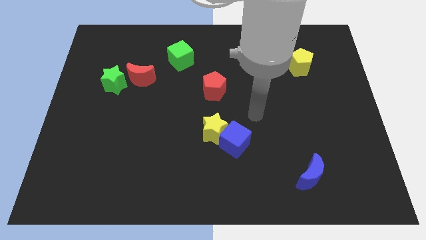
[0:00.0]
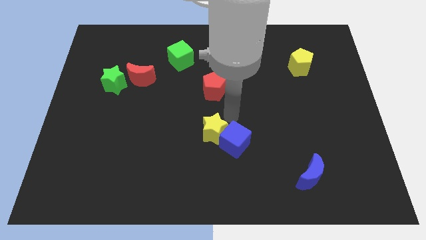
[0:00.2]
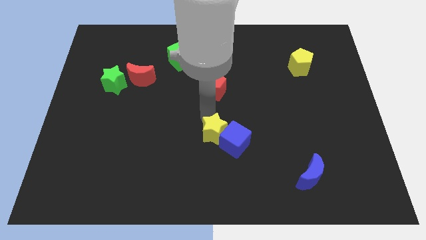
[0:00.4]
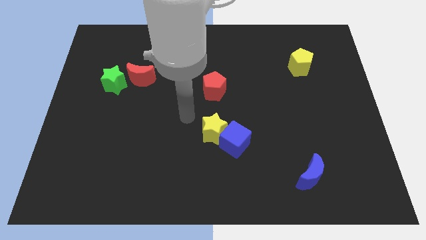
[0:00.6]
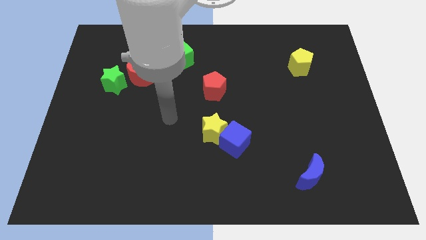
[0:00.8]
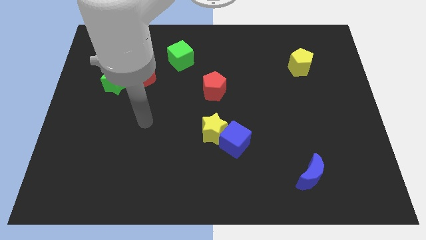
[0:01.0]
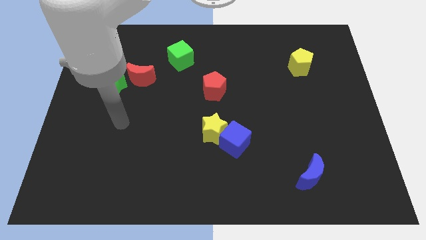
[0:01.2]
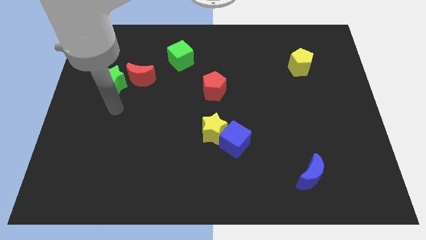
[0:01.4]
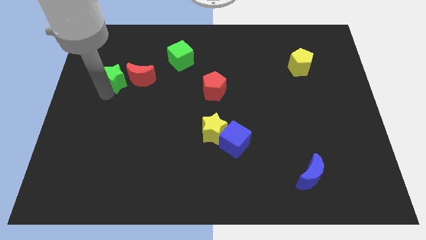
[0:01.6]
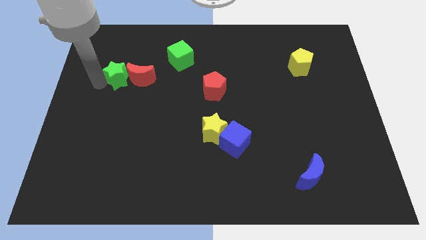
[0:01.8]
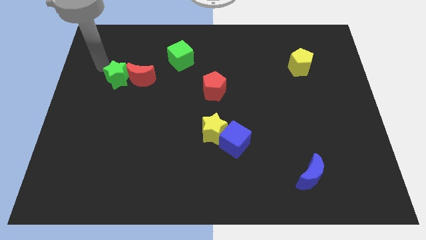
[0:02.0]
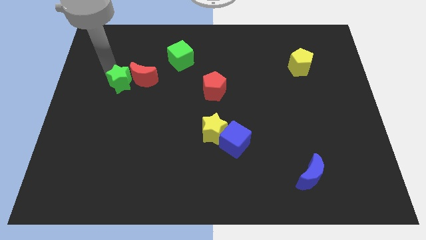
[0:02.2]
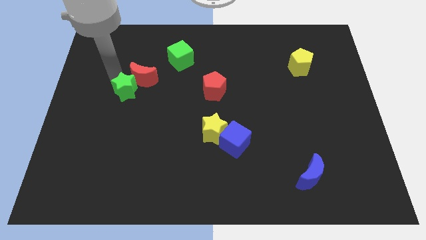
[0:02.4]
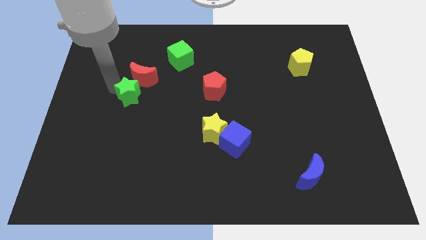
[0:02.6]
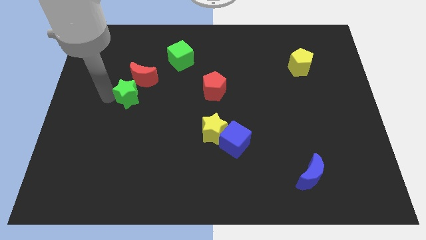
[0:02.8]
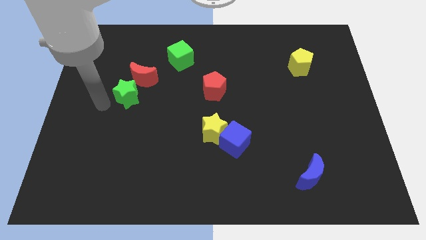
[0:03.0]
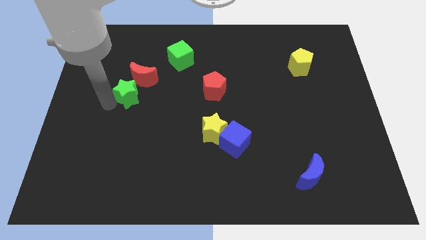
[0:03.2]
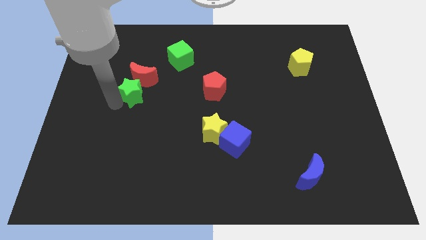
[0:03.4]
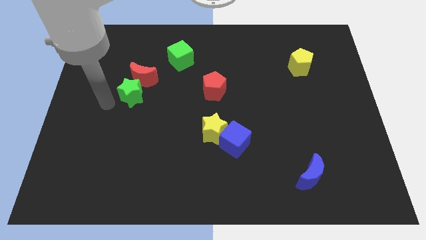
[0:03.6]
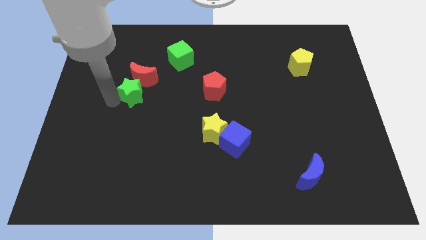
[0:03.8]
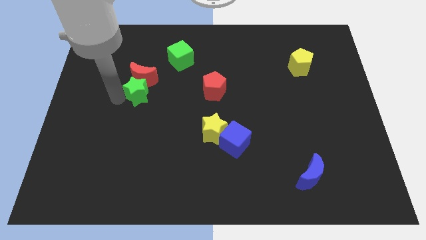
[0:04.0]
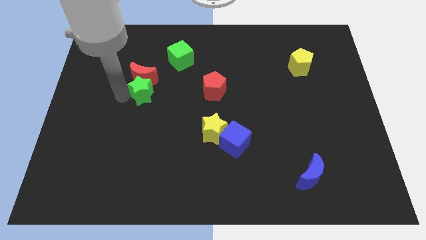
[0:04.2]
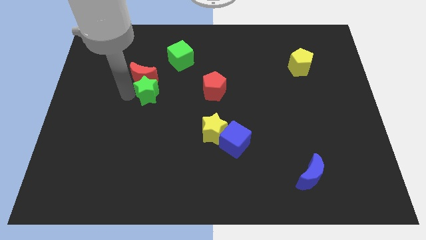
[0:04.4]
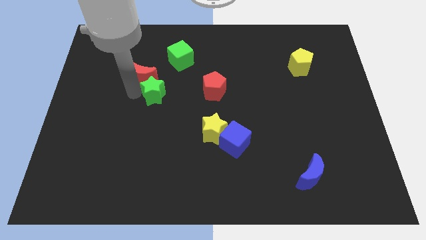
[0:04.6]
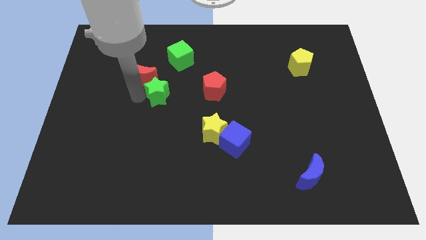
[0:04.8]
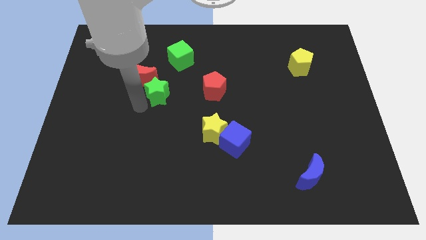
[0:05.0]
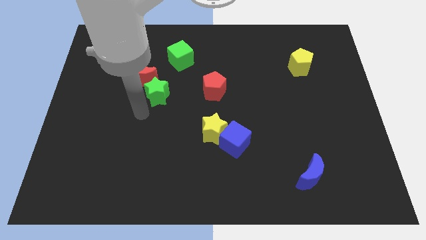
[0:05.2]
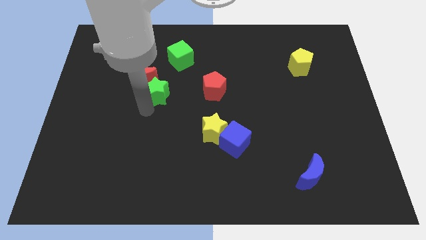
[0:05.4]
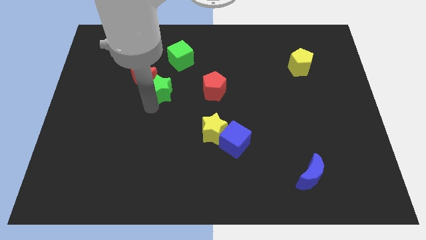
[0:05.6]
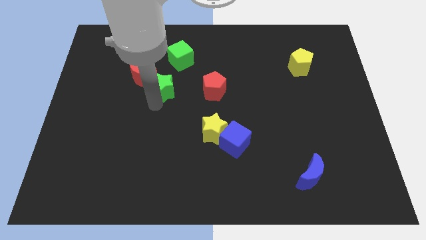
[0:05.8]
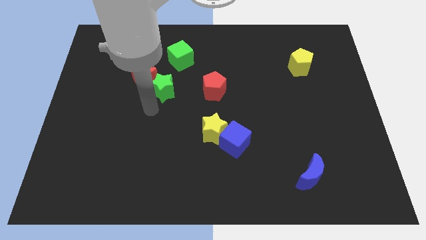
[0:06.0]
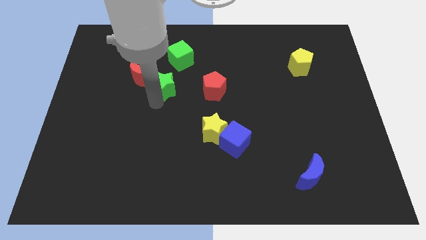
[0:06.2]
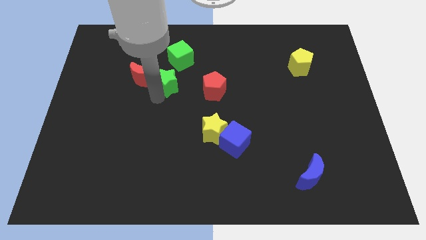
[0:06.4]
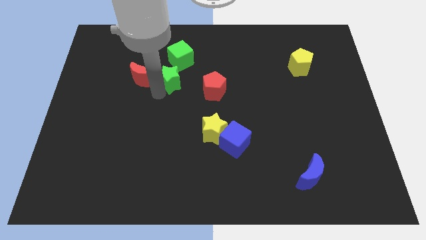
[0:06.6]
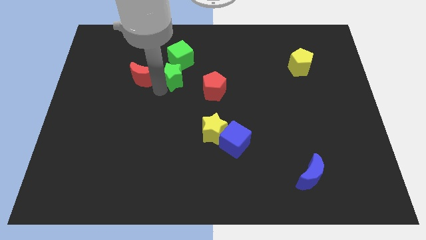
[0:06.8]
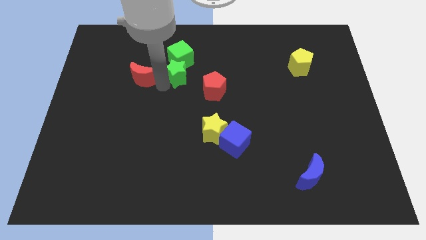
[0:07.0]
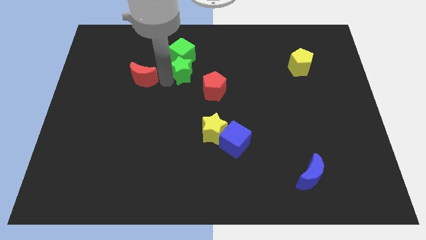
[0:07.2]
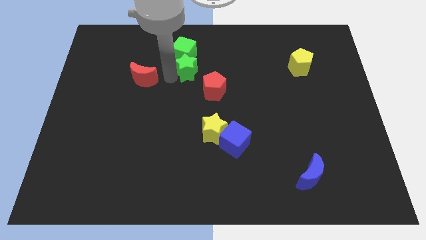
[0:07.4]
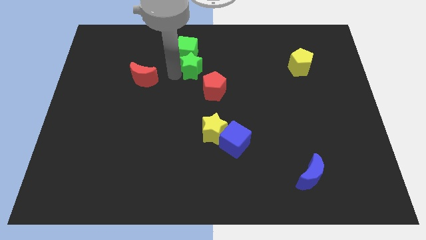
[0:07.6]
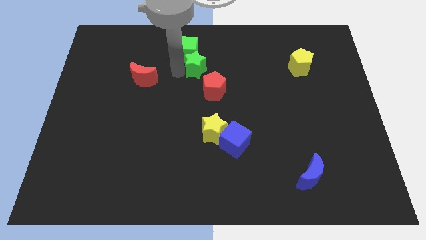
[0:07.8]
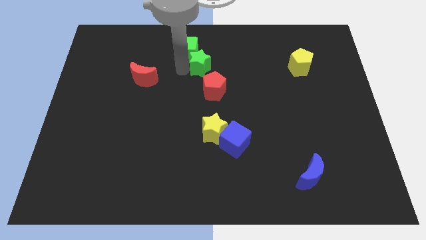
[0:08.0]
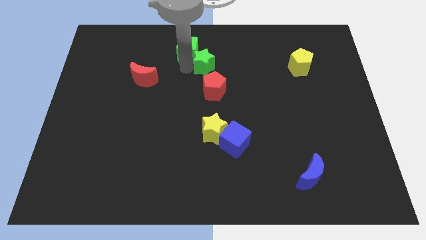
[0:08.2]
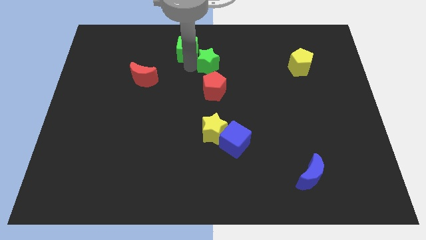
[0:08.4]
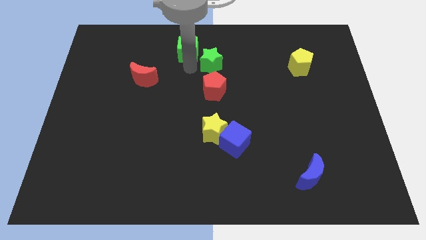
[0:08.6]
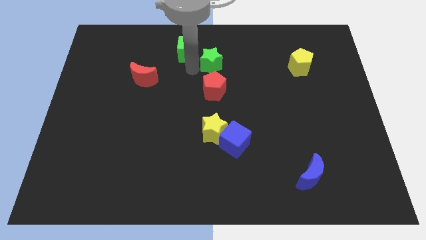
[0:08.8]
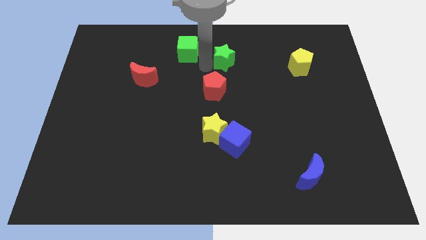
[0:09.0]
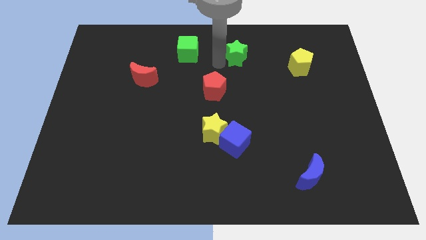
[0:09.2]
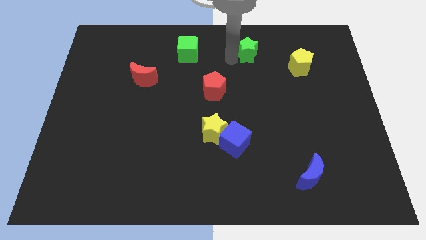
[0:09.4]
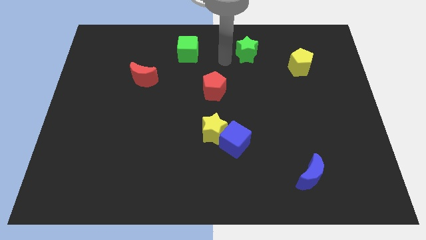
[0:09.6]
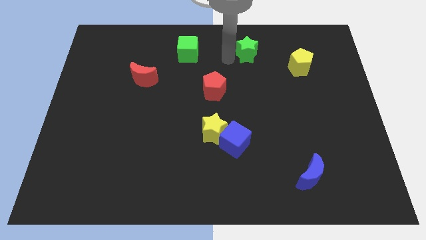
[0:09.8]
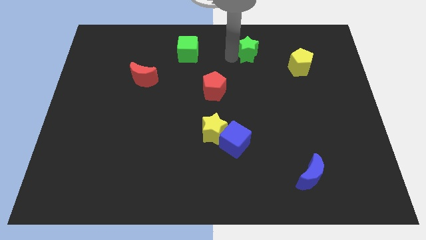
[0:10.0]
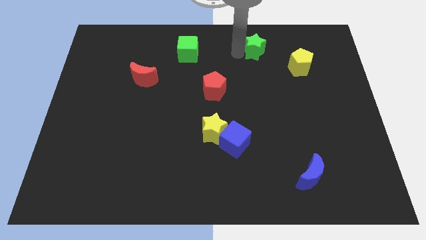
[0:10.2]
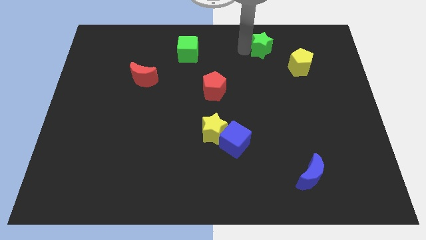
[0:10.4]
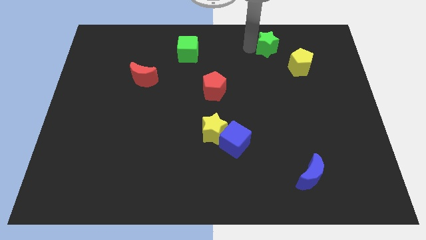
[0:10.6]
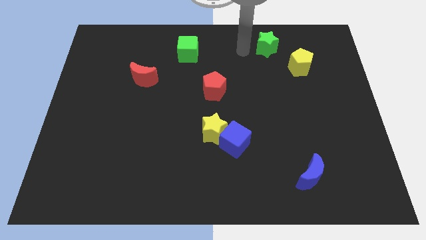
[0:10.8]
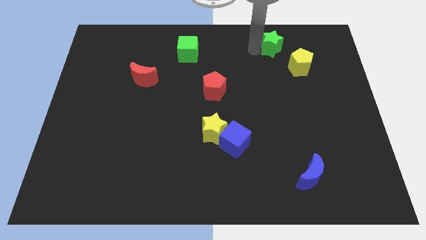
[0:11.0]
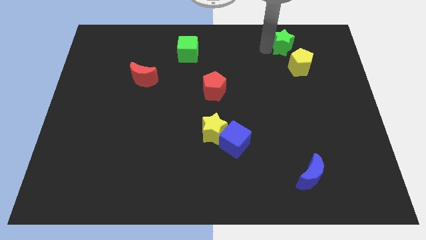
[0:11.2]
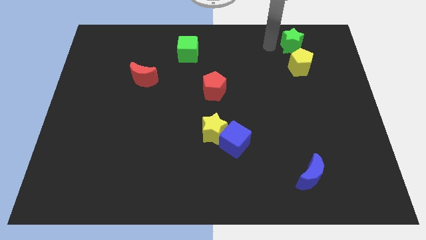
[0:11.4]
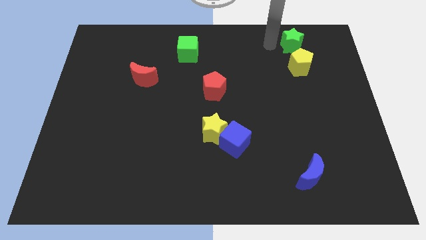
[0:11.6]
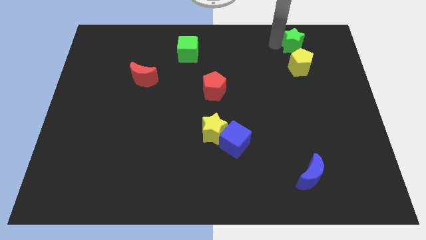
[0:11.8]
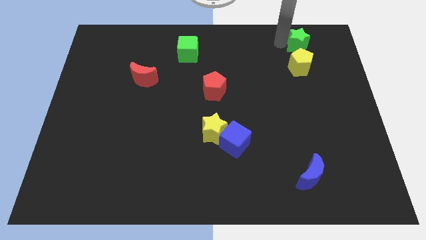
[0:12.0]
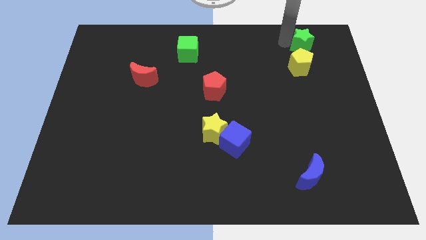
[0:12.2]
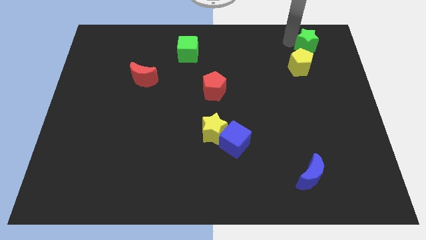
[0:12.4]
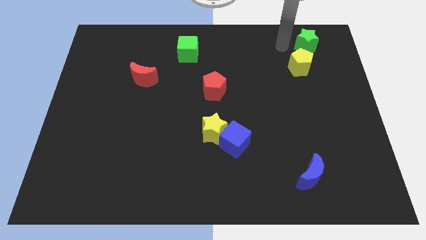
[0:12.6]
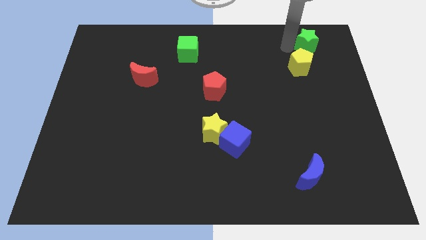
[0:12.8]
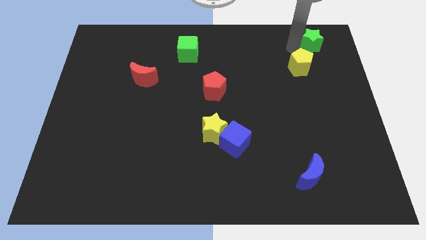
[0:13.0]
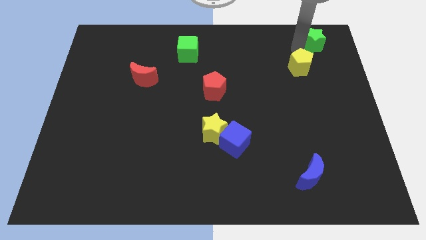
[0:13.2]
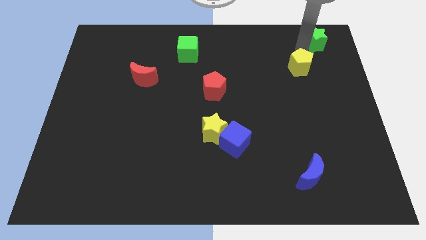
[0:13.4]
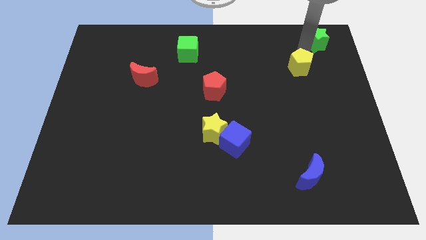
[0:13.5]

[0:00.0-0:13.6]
put the green star to the upper right corner
